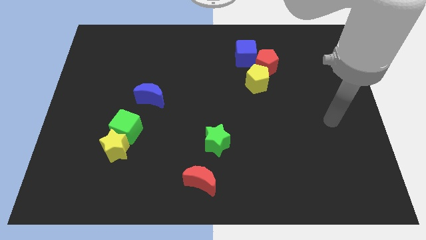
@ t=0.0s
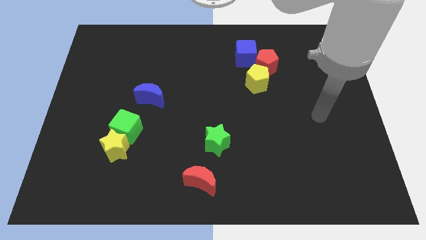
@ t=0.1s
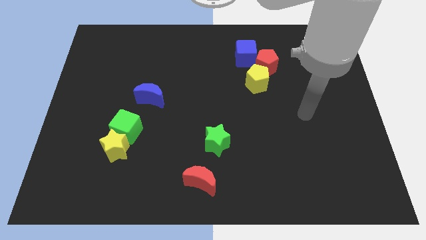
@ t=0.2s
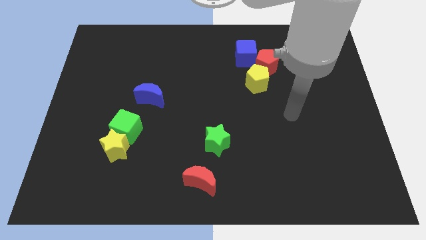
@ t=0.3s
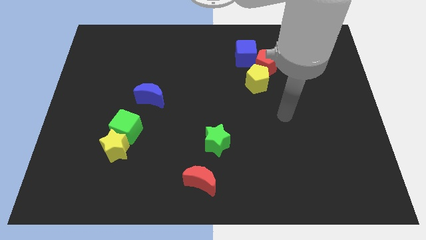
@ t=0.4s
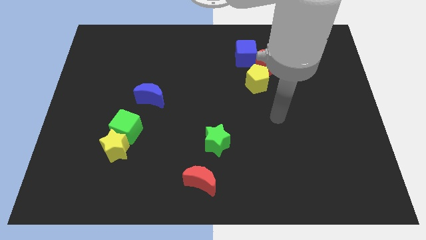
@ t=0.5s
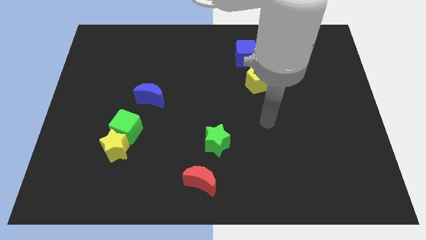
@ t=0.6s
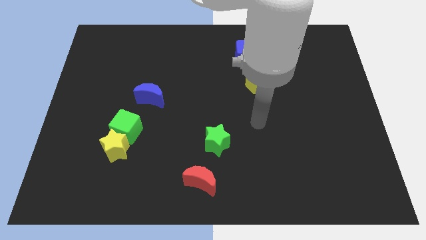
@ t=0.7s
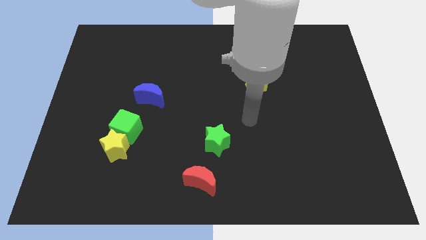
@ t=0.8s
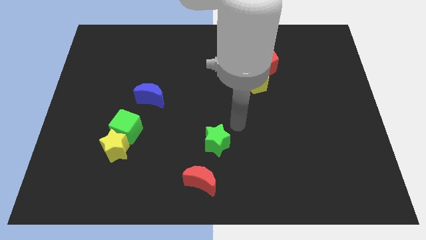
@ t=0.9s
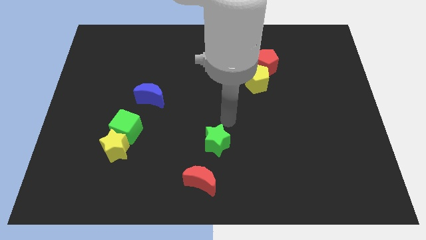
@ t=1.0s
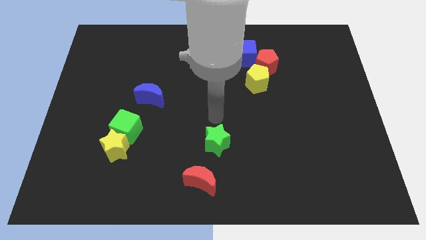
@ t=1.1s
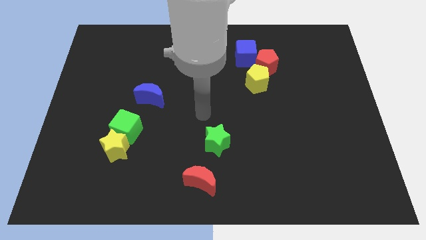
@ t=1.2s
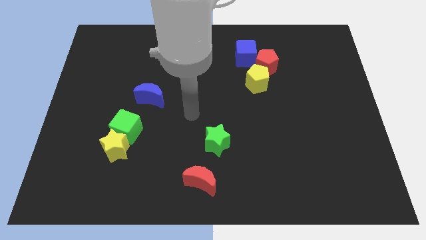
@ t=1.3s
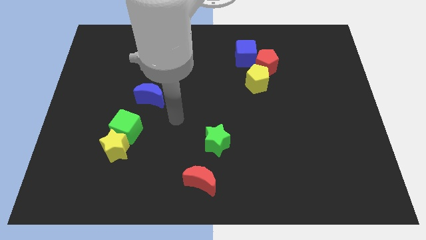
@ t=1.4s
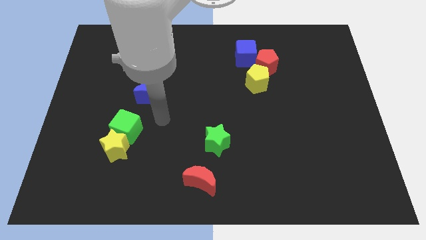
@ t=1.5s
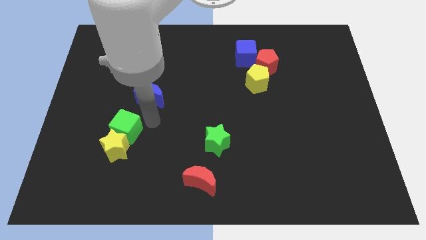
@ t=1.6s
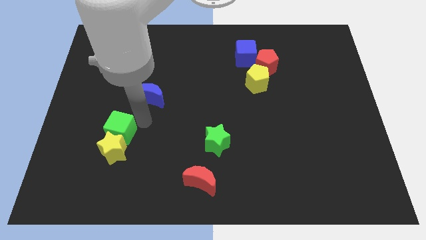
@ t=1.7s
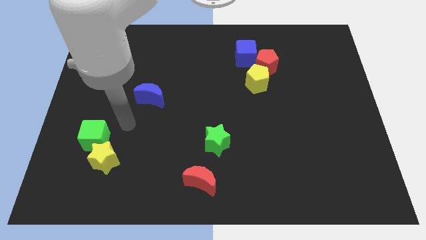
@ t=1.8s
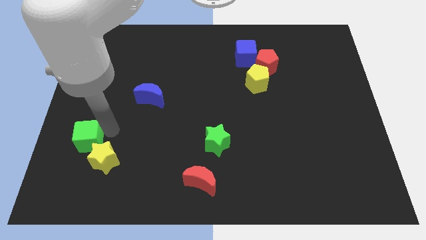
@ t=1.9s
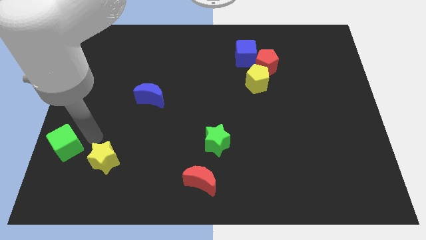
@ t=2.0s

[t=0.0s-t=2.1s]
separate the yellow star from the green cube

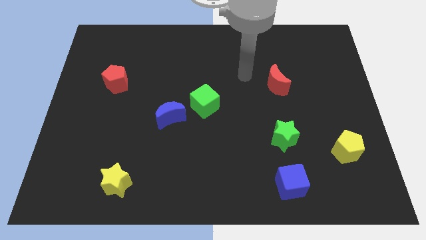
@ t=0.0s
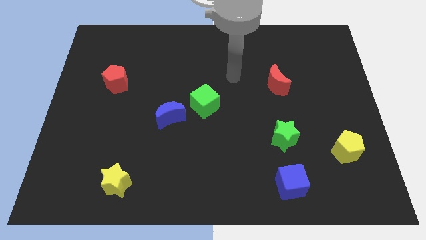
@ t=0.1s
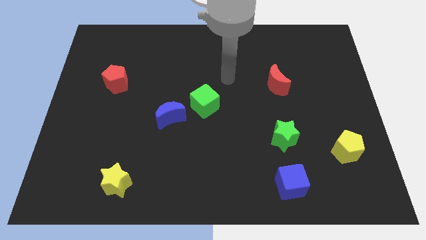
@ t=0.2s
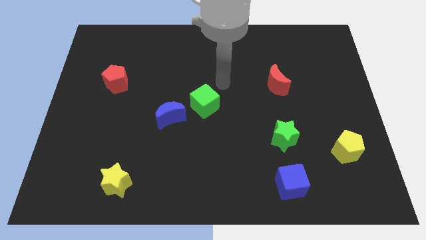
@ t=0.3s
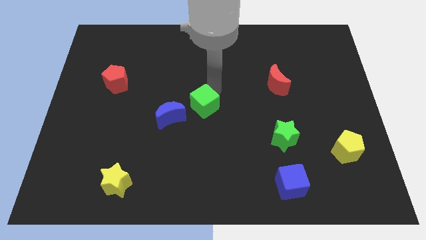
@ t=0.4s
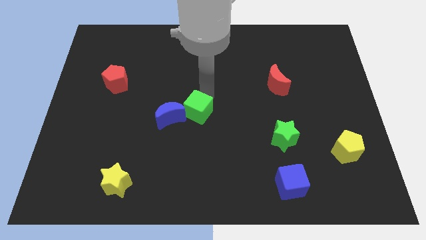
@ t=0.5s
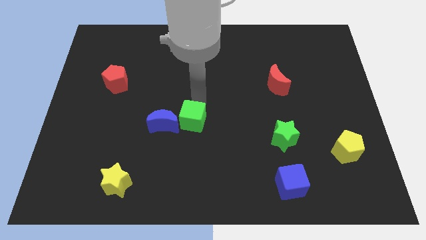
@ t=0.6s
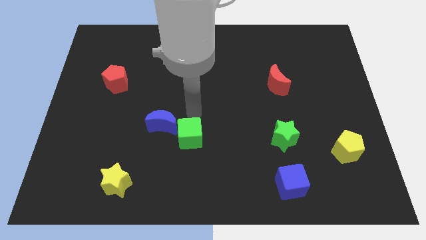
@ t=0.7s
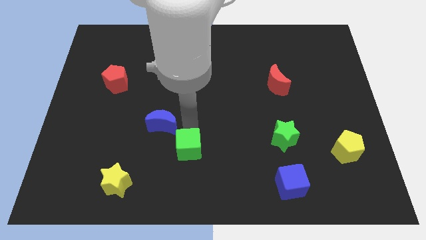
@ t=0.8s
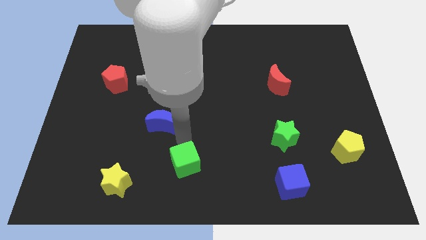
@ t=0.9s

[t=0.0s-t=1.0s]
pull the blue moon apart from the green cube

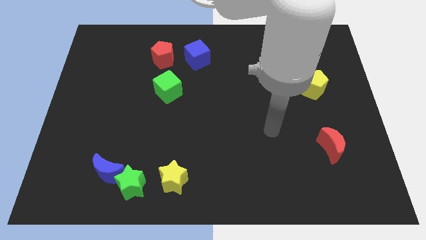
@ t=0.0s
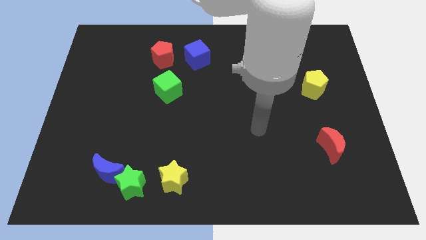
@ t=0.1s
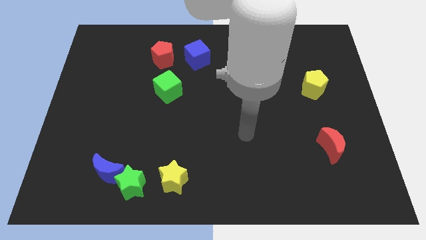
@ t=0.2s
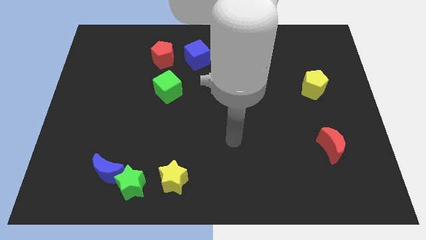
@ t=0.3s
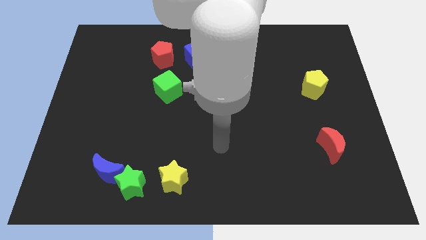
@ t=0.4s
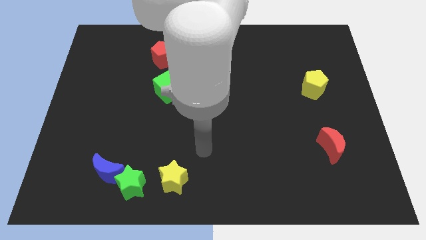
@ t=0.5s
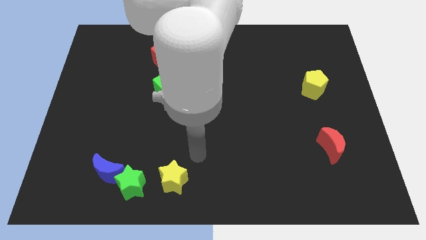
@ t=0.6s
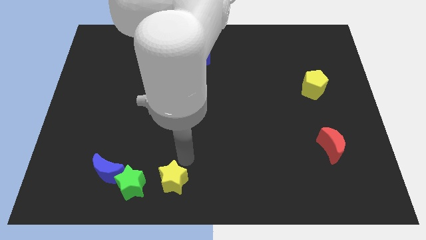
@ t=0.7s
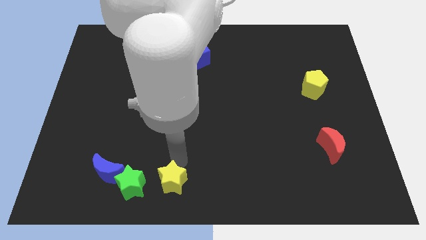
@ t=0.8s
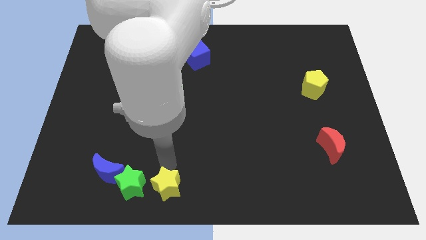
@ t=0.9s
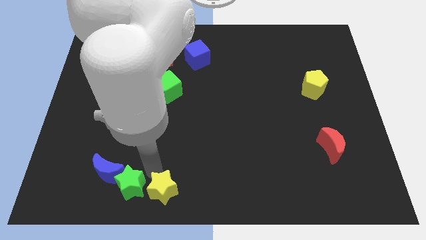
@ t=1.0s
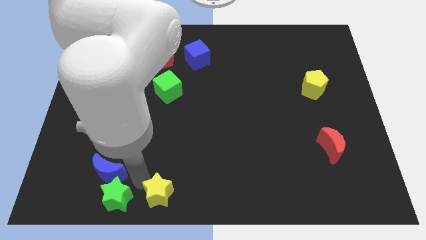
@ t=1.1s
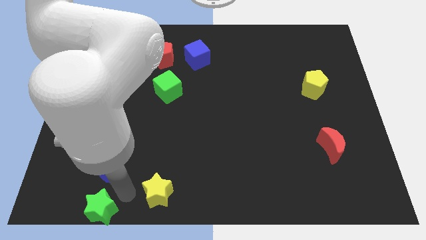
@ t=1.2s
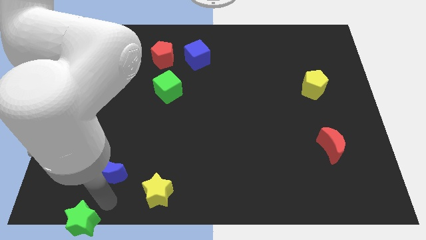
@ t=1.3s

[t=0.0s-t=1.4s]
move the blue moon away from the green star

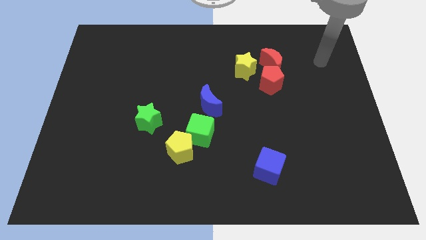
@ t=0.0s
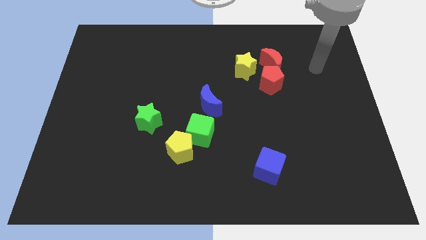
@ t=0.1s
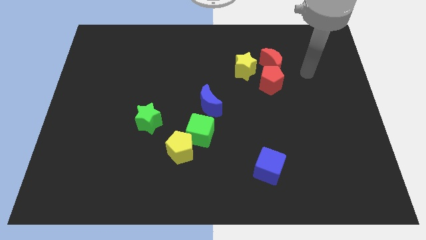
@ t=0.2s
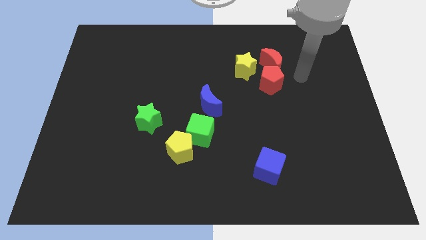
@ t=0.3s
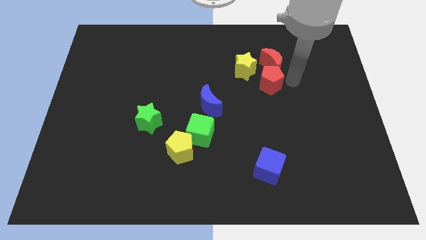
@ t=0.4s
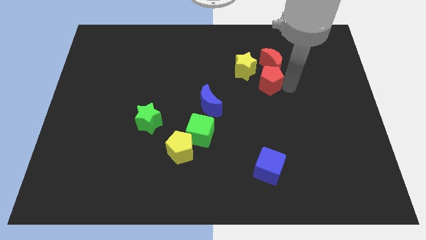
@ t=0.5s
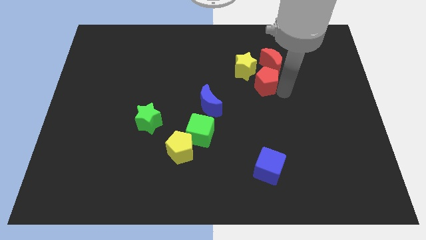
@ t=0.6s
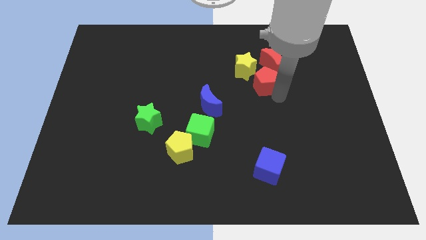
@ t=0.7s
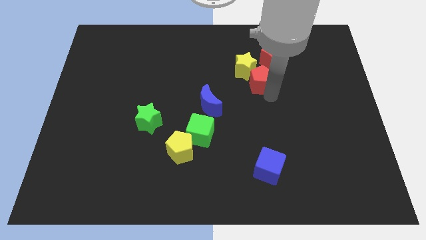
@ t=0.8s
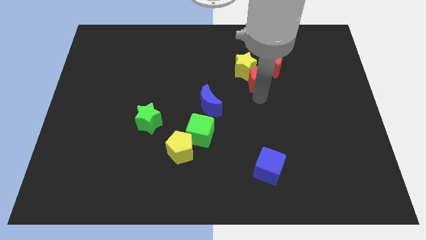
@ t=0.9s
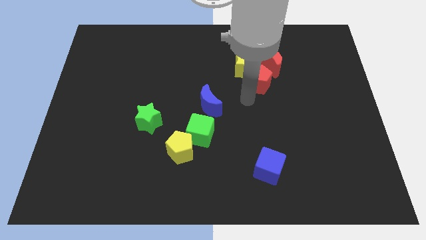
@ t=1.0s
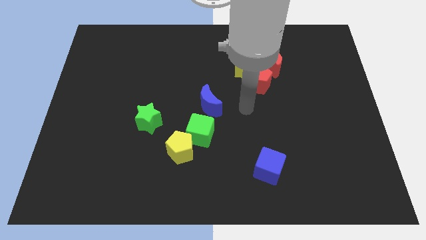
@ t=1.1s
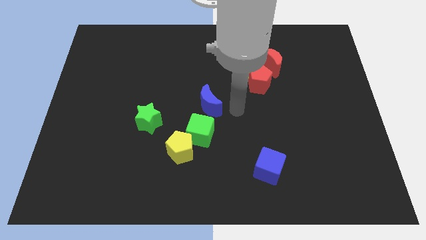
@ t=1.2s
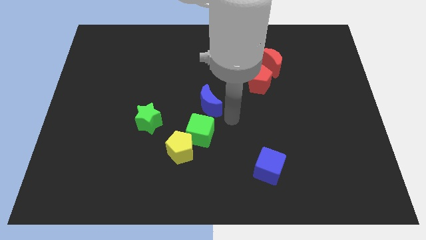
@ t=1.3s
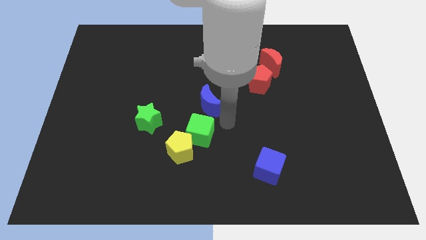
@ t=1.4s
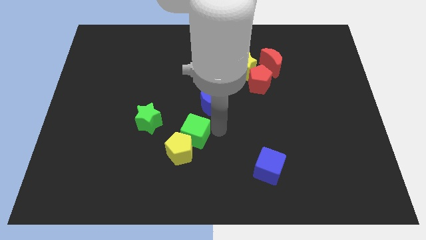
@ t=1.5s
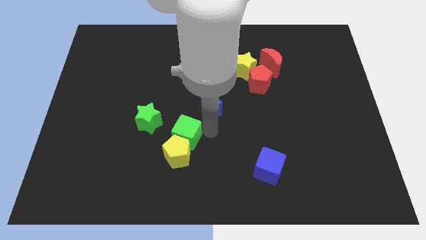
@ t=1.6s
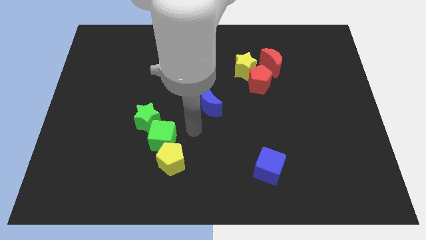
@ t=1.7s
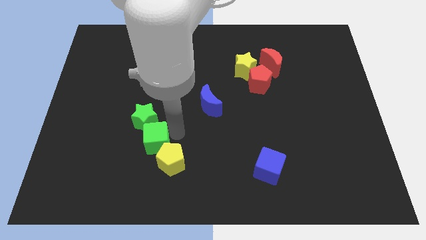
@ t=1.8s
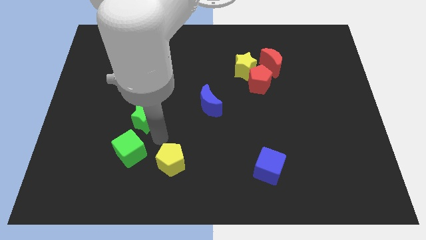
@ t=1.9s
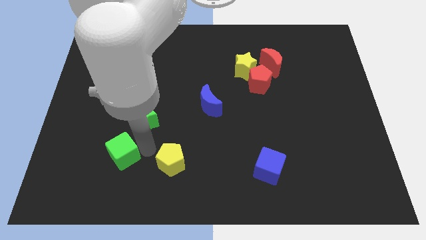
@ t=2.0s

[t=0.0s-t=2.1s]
pull the yellow pentagon apart from the green cube

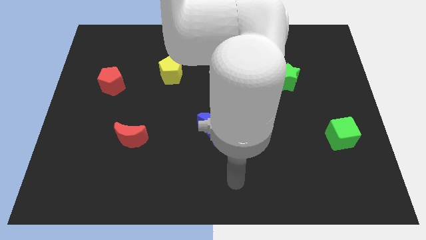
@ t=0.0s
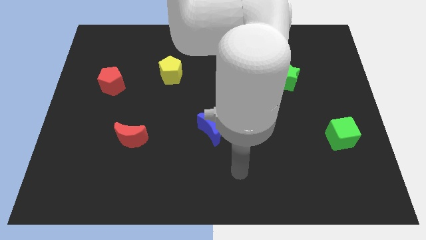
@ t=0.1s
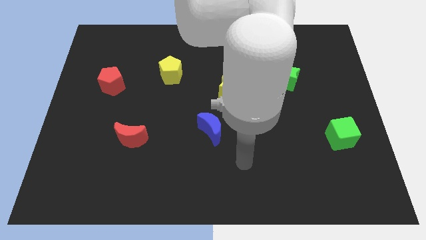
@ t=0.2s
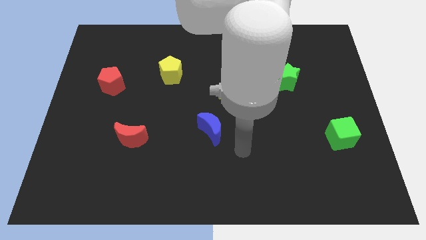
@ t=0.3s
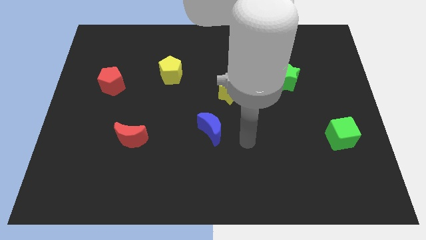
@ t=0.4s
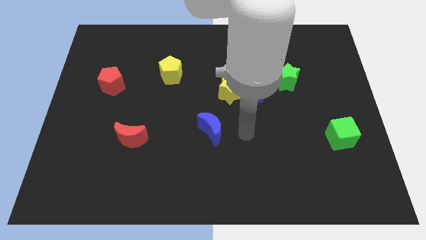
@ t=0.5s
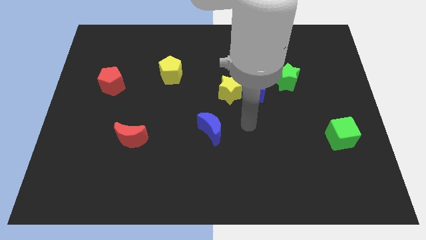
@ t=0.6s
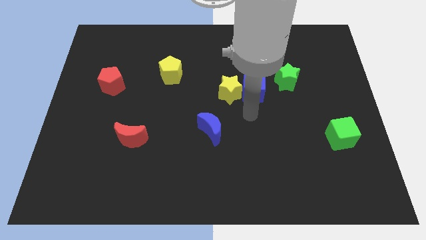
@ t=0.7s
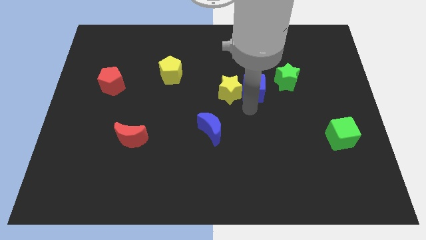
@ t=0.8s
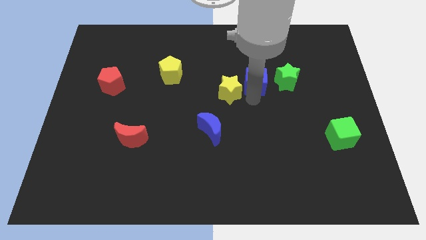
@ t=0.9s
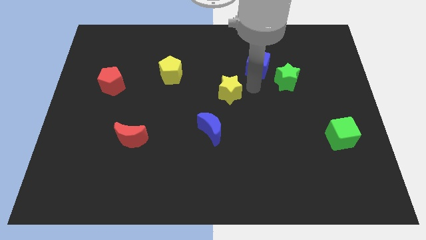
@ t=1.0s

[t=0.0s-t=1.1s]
pull the yellow star apart from the blue cube

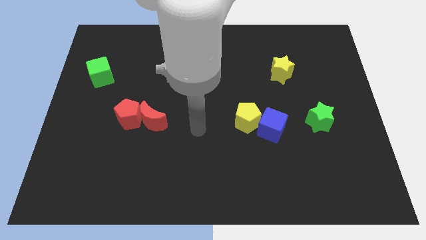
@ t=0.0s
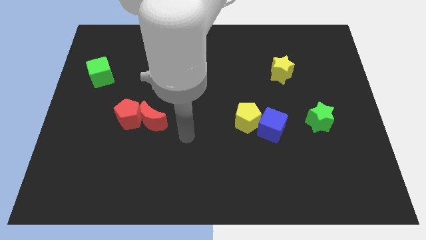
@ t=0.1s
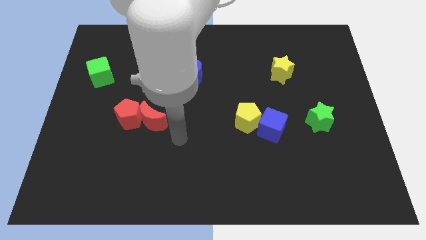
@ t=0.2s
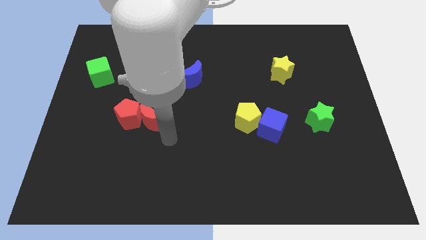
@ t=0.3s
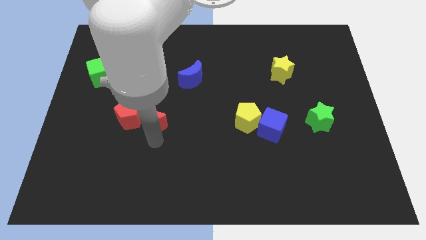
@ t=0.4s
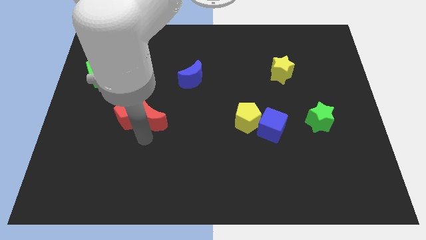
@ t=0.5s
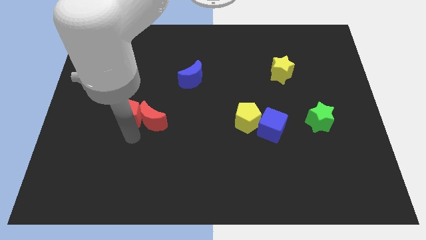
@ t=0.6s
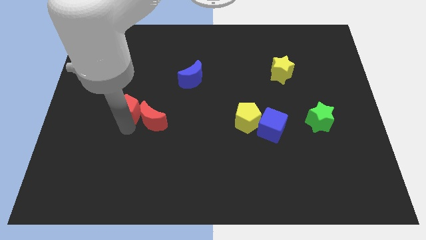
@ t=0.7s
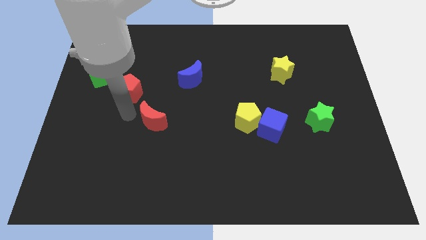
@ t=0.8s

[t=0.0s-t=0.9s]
pull the red moon apart from the red pentagon

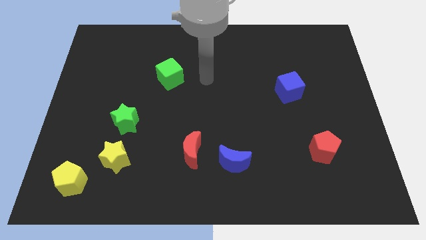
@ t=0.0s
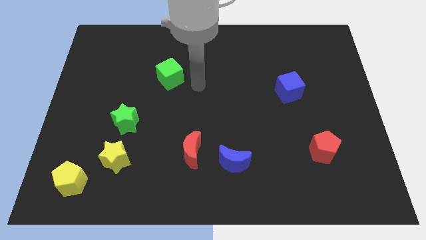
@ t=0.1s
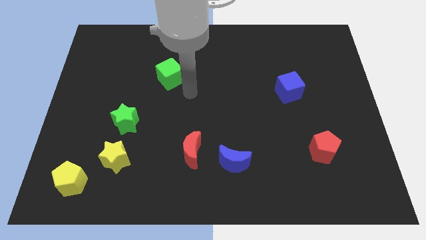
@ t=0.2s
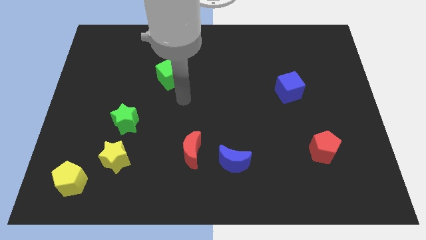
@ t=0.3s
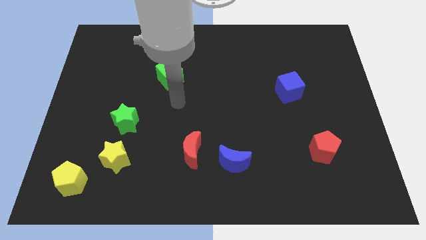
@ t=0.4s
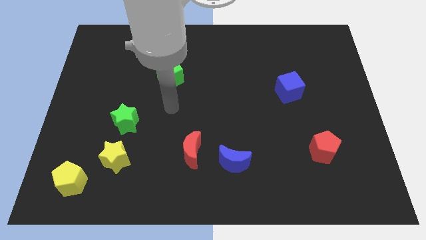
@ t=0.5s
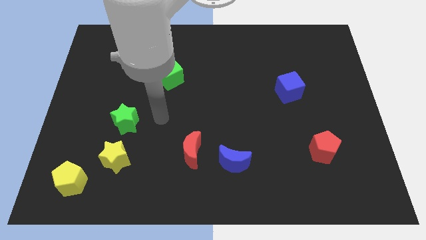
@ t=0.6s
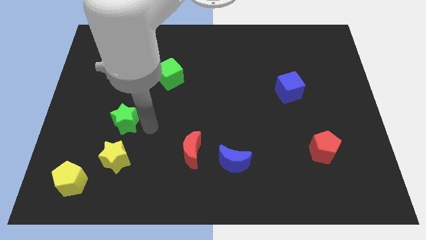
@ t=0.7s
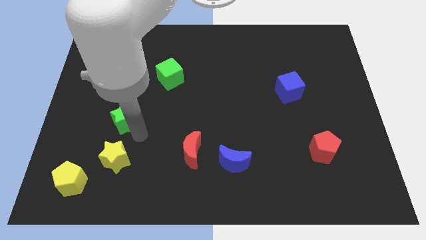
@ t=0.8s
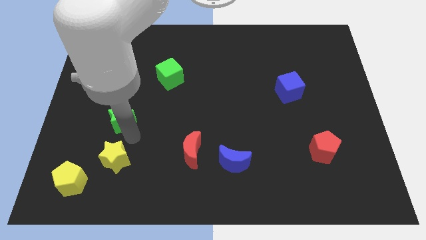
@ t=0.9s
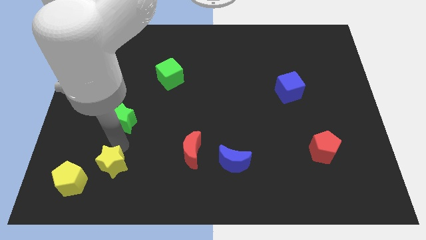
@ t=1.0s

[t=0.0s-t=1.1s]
move the green star away from the yellow star
